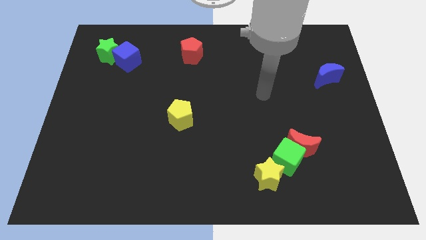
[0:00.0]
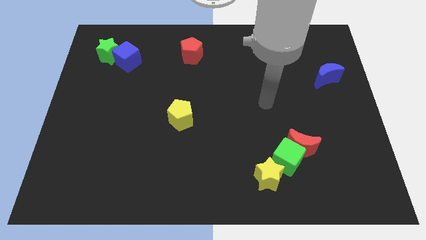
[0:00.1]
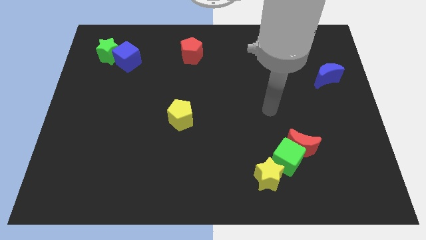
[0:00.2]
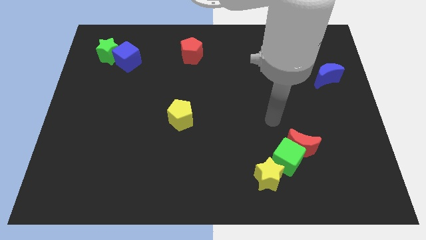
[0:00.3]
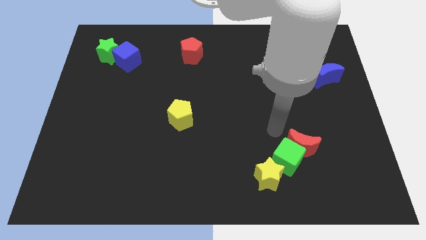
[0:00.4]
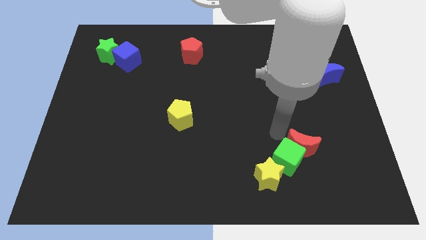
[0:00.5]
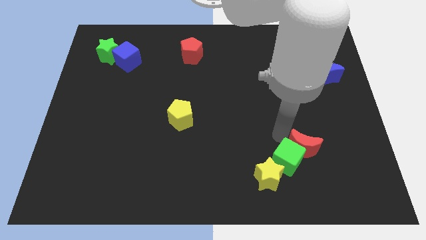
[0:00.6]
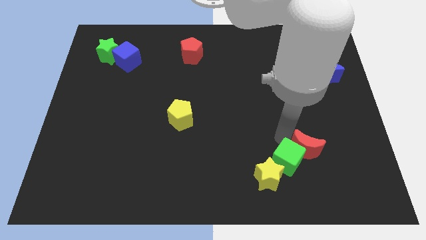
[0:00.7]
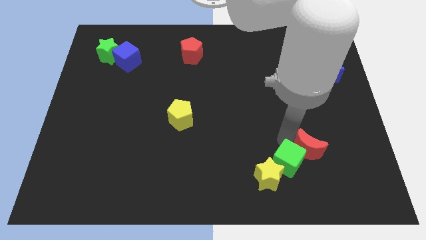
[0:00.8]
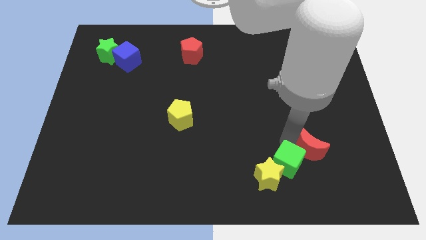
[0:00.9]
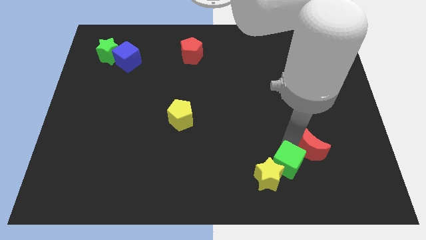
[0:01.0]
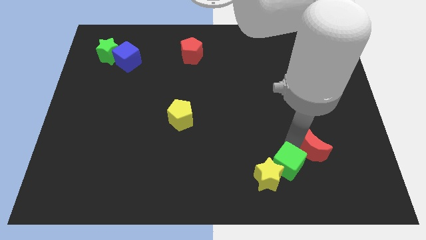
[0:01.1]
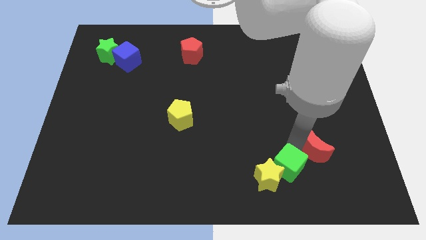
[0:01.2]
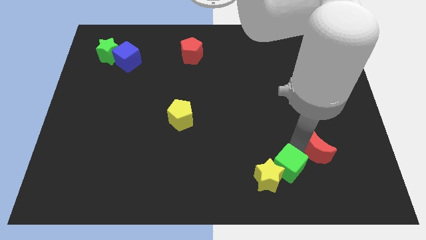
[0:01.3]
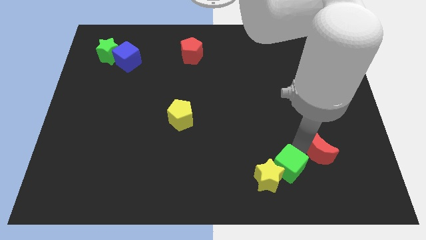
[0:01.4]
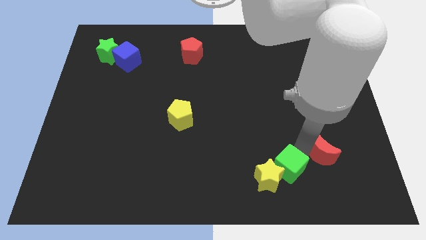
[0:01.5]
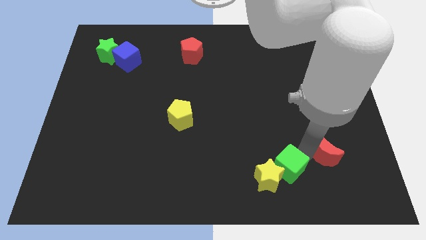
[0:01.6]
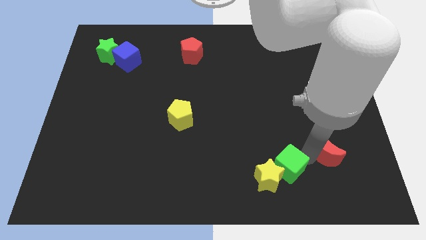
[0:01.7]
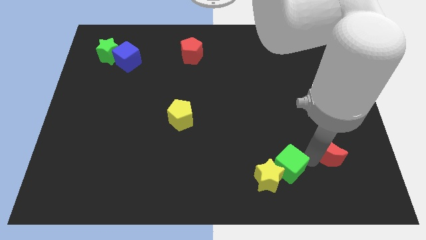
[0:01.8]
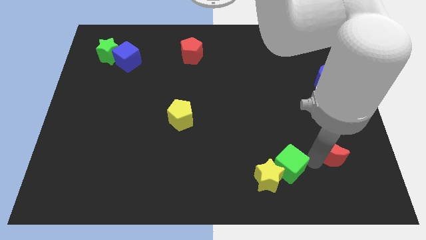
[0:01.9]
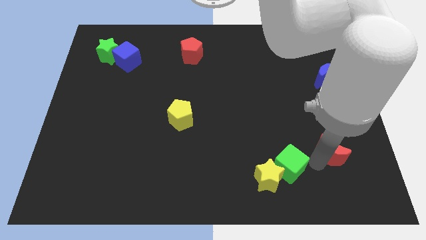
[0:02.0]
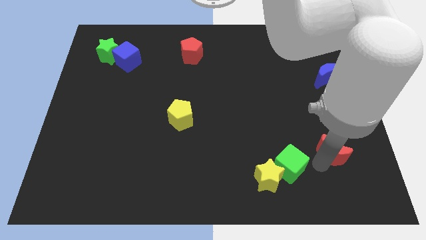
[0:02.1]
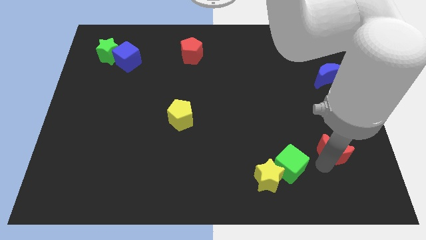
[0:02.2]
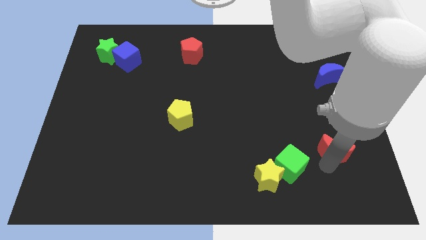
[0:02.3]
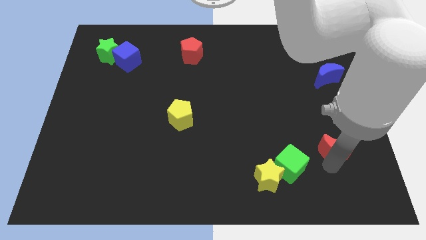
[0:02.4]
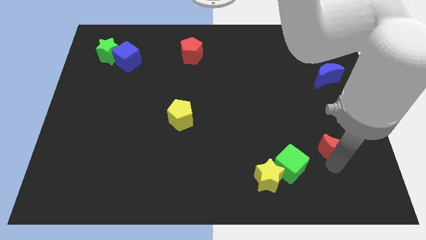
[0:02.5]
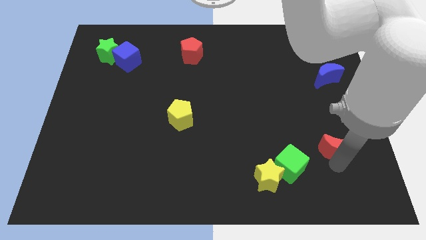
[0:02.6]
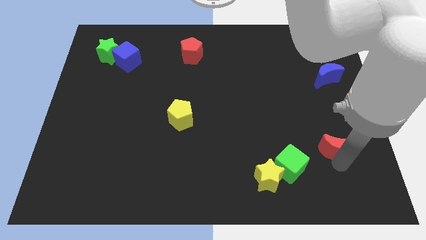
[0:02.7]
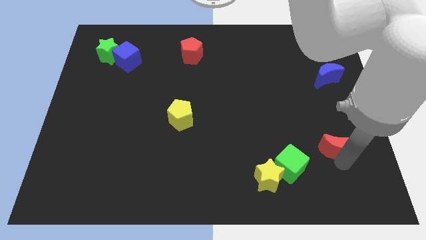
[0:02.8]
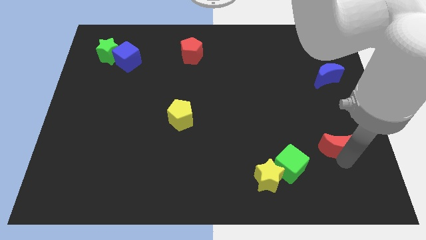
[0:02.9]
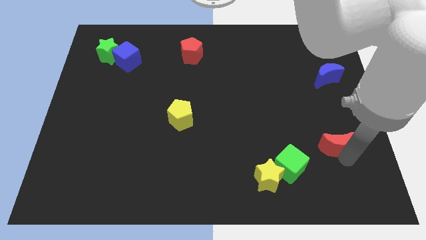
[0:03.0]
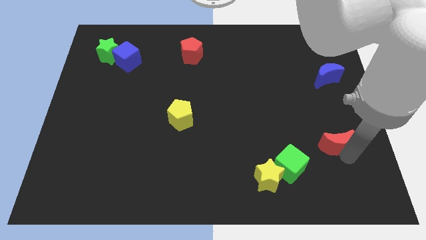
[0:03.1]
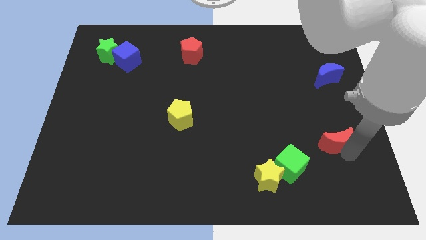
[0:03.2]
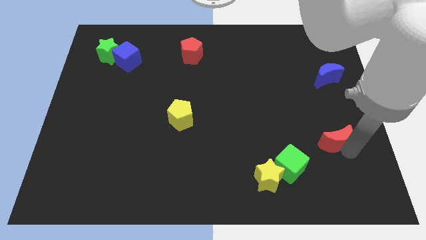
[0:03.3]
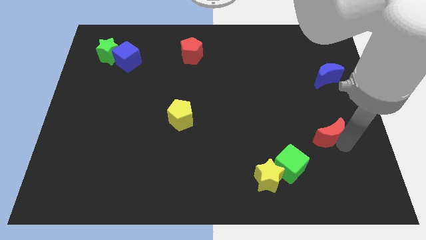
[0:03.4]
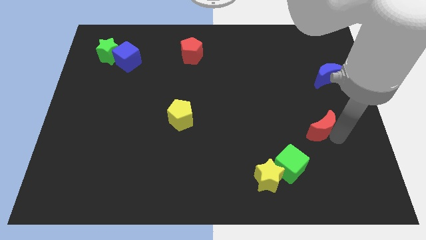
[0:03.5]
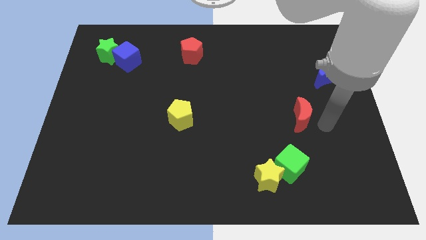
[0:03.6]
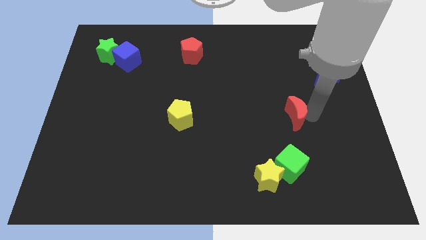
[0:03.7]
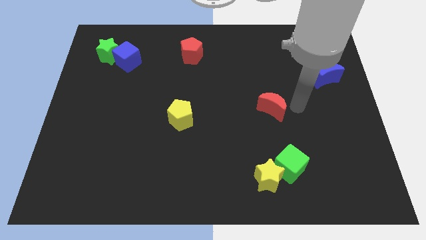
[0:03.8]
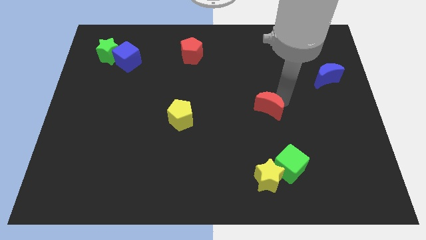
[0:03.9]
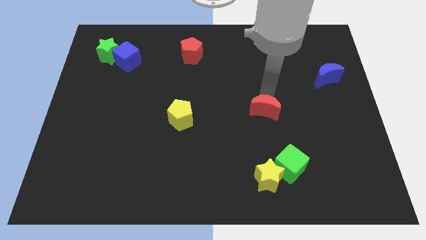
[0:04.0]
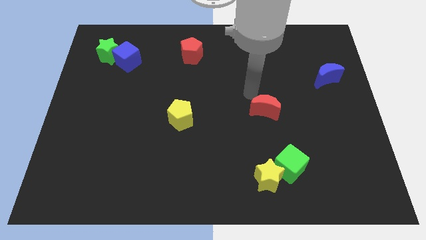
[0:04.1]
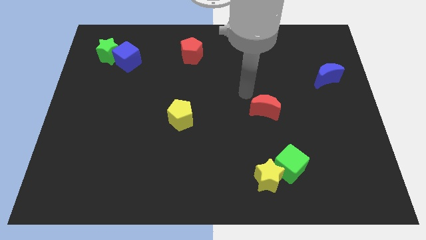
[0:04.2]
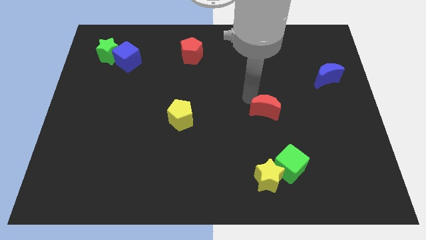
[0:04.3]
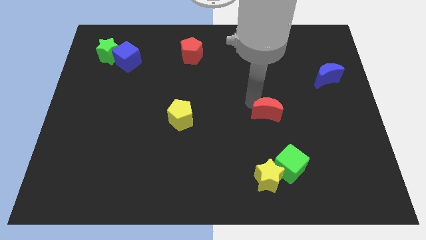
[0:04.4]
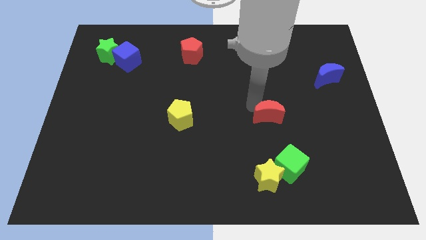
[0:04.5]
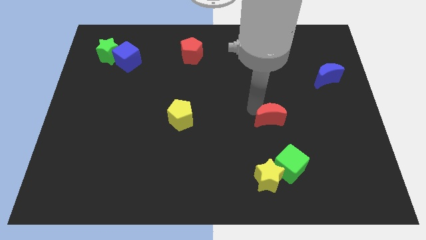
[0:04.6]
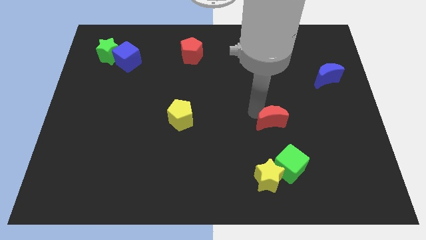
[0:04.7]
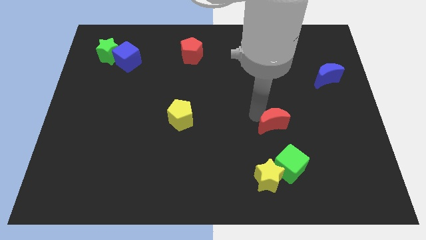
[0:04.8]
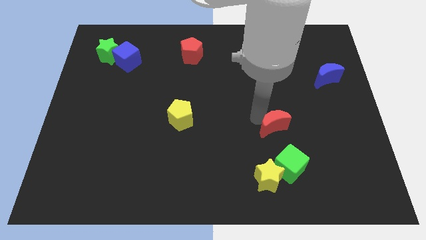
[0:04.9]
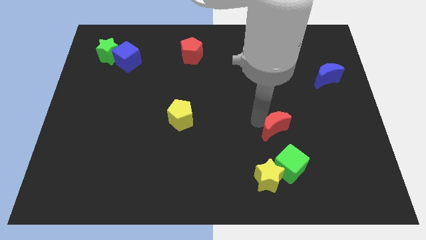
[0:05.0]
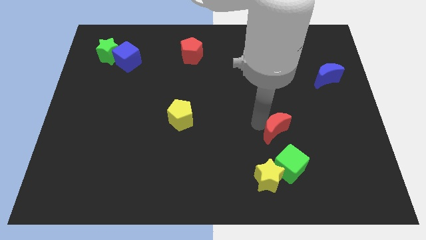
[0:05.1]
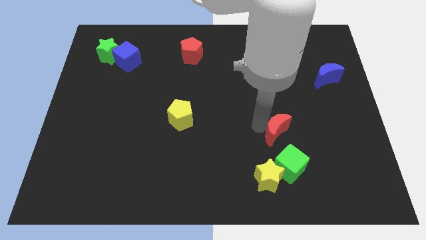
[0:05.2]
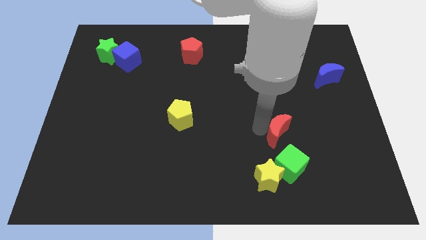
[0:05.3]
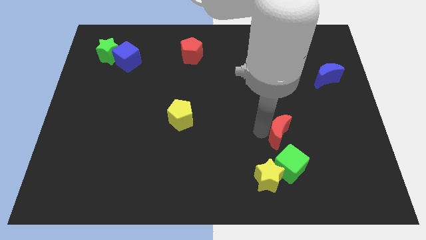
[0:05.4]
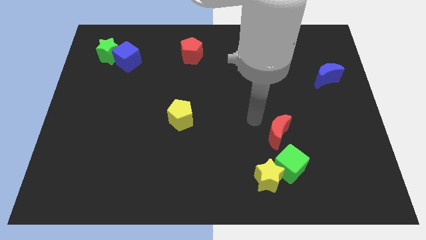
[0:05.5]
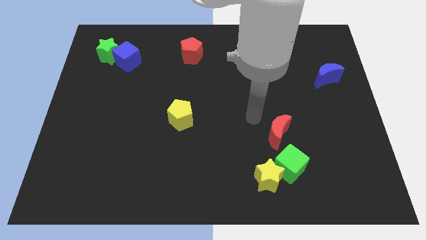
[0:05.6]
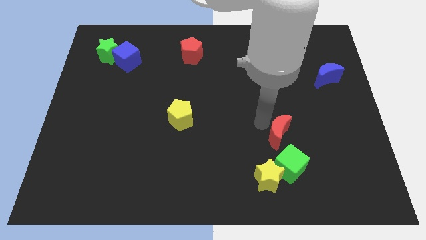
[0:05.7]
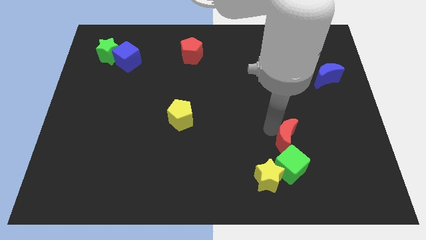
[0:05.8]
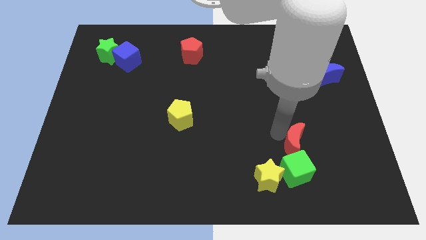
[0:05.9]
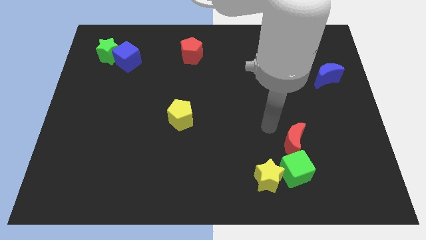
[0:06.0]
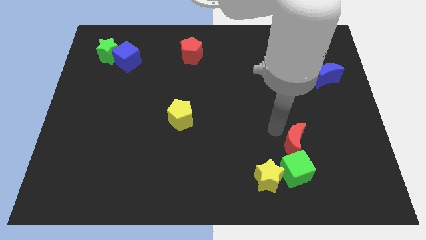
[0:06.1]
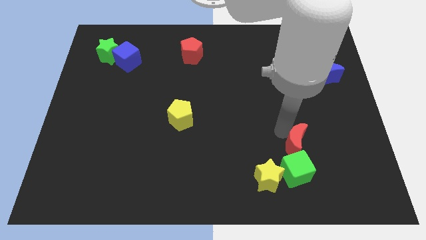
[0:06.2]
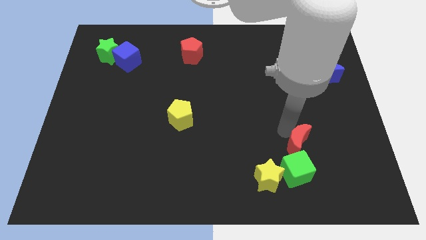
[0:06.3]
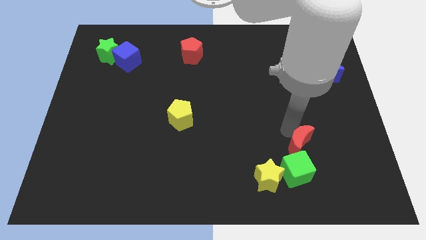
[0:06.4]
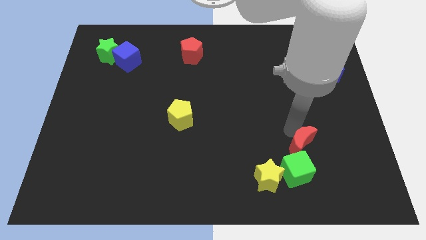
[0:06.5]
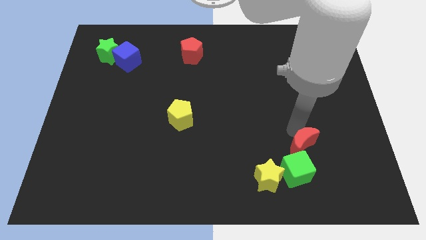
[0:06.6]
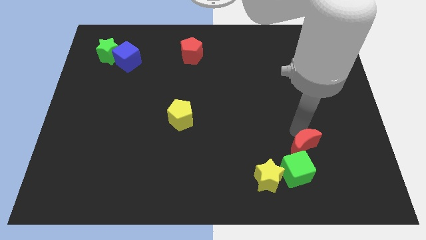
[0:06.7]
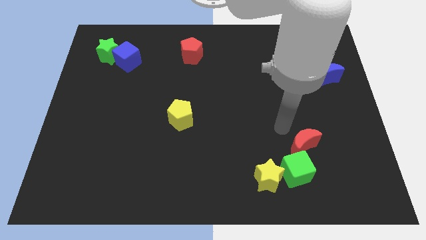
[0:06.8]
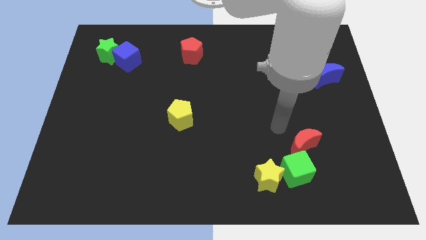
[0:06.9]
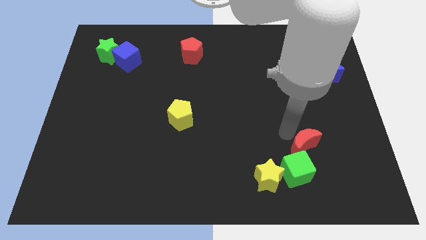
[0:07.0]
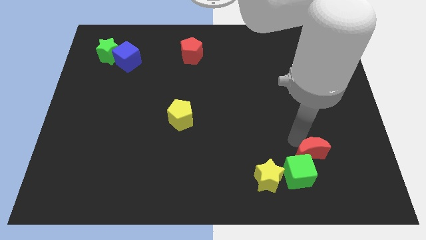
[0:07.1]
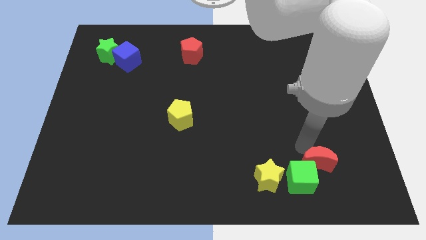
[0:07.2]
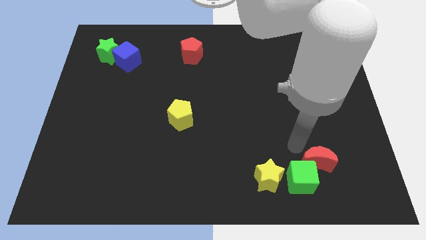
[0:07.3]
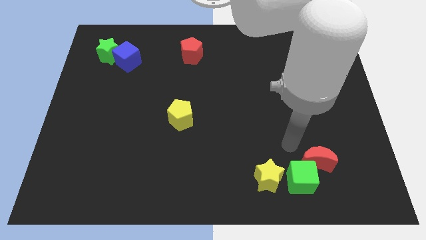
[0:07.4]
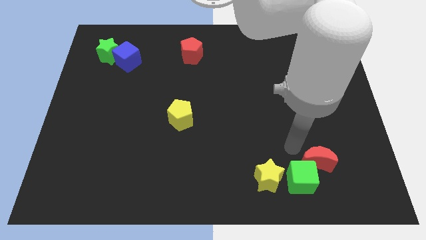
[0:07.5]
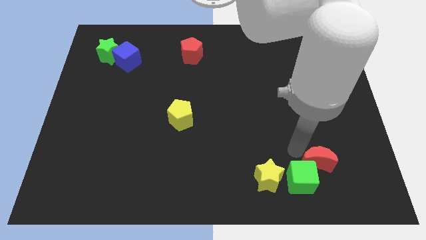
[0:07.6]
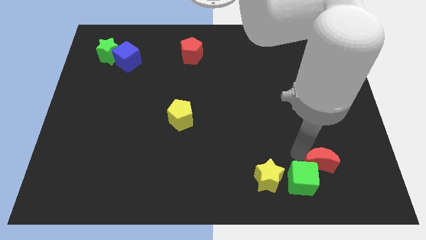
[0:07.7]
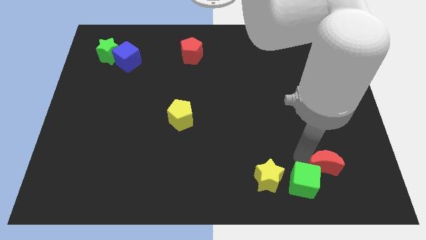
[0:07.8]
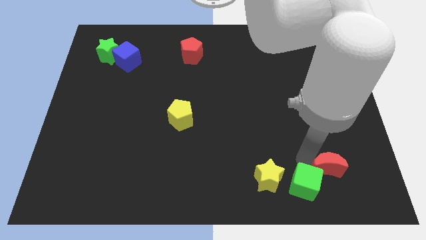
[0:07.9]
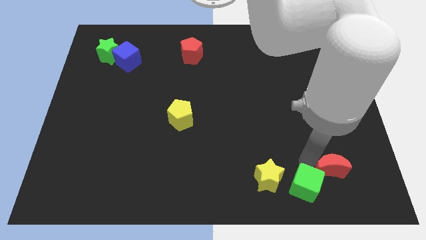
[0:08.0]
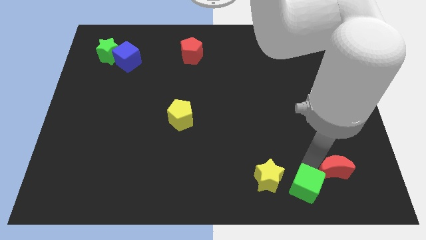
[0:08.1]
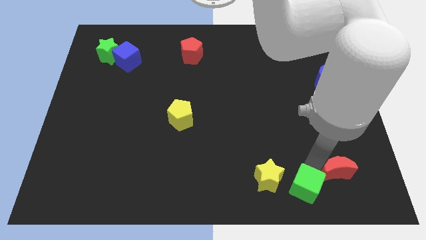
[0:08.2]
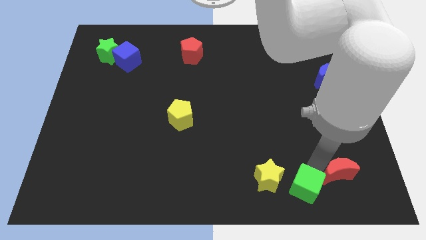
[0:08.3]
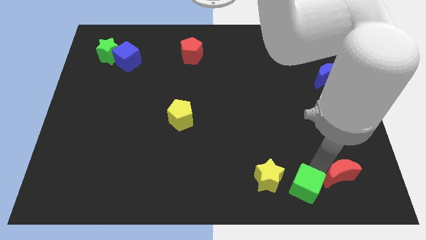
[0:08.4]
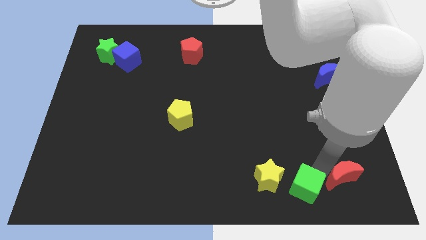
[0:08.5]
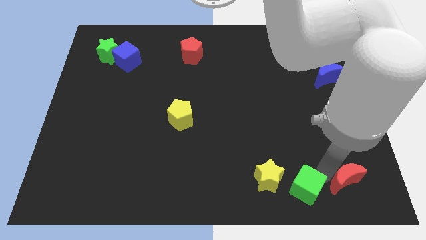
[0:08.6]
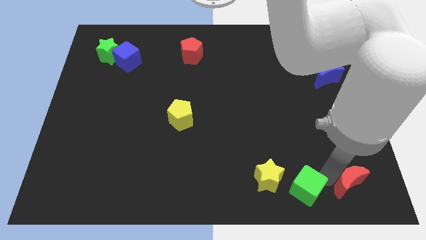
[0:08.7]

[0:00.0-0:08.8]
move the red moon to the bottom right
